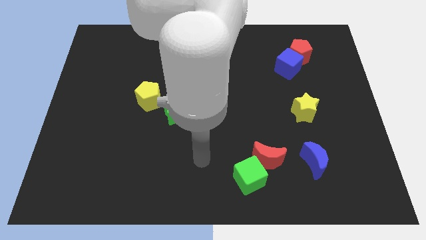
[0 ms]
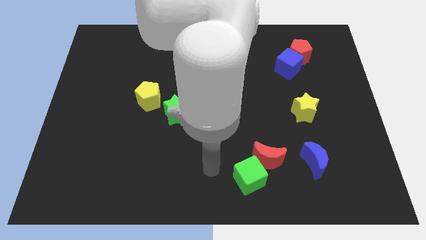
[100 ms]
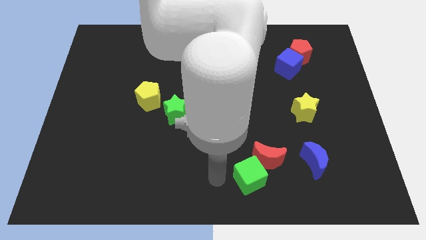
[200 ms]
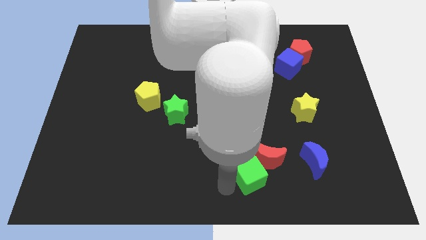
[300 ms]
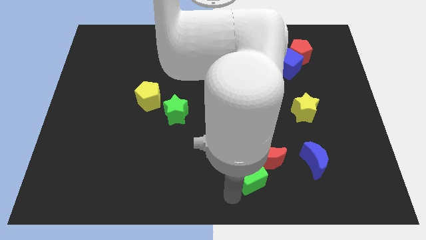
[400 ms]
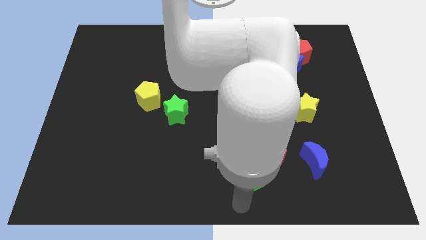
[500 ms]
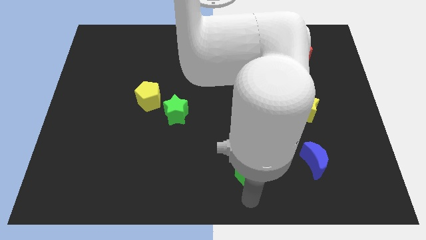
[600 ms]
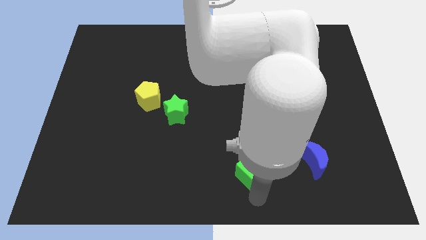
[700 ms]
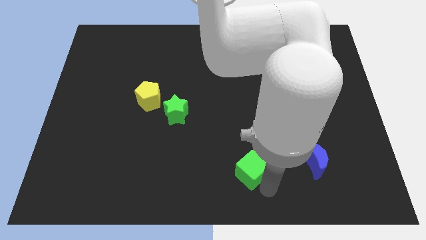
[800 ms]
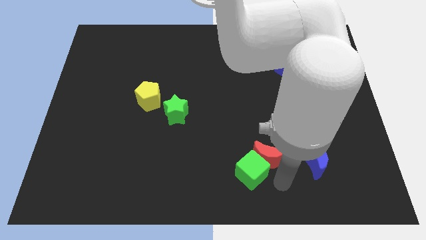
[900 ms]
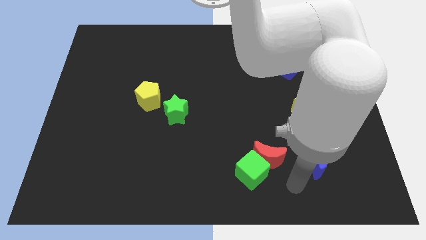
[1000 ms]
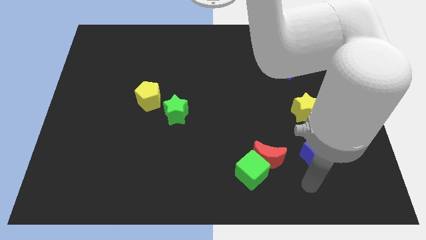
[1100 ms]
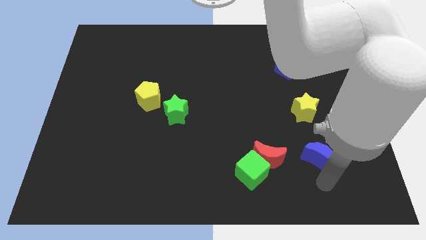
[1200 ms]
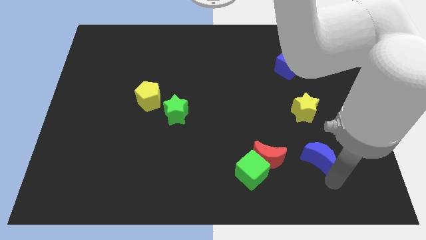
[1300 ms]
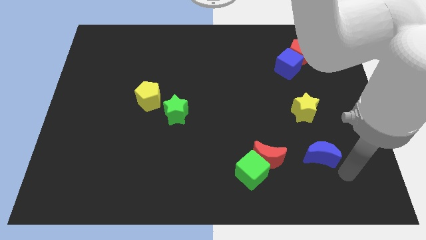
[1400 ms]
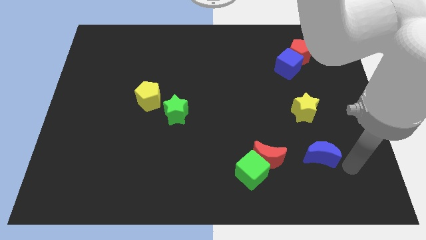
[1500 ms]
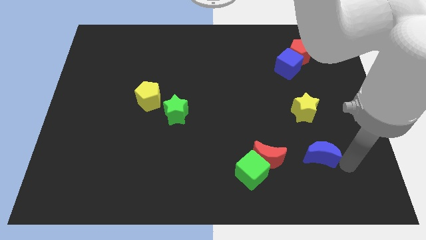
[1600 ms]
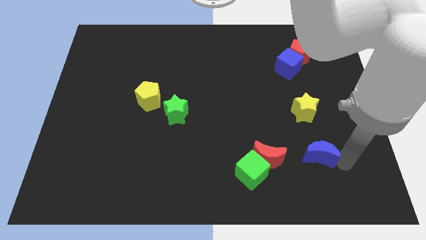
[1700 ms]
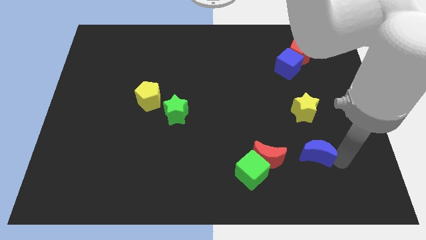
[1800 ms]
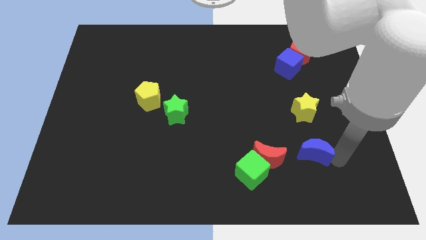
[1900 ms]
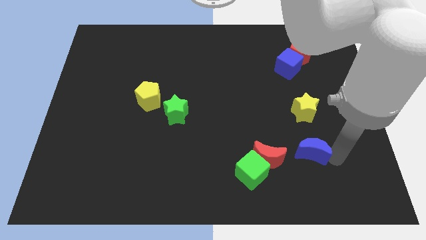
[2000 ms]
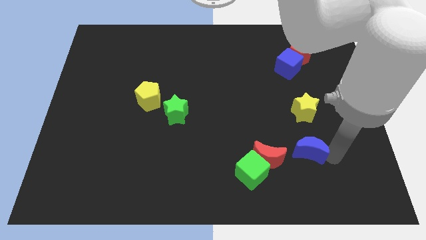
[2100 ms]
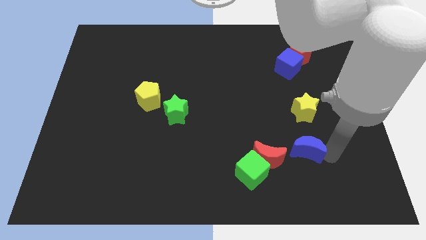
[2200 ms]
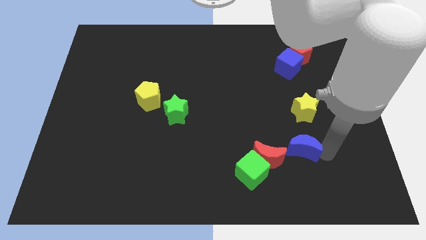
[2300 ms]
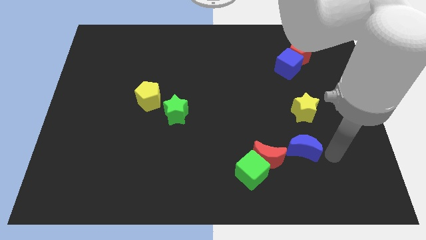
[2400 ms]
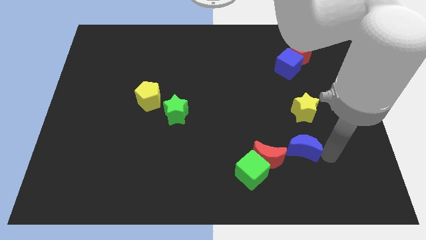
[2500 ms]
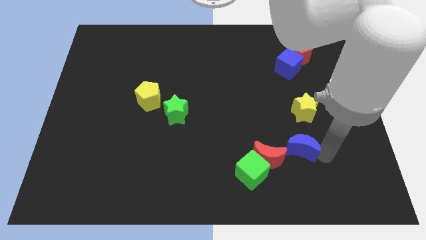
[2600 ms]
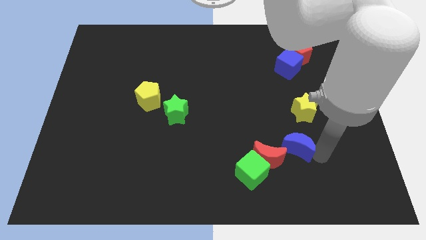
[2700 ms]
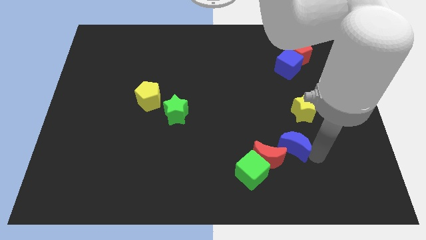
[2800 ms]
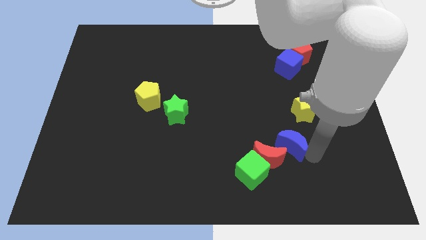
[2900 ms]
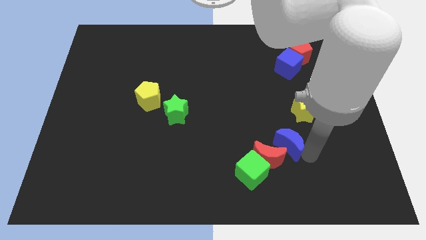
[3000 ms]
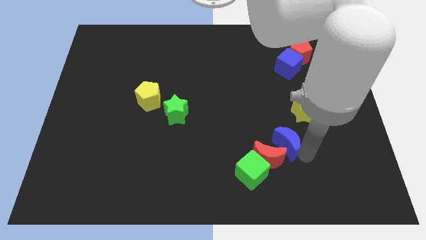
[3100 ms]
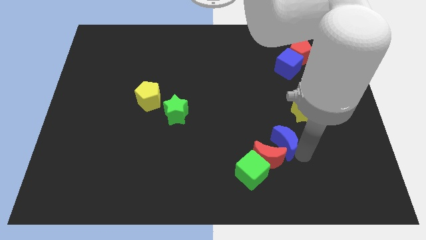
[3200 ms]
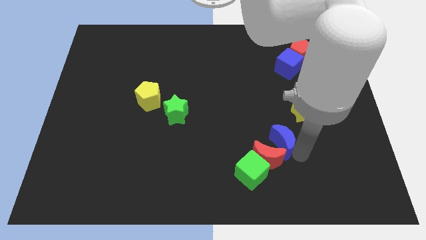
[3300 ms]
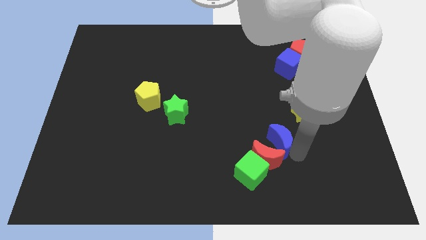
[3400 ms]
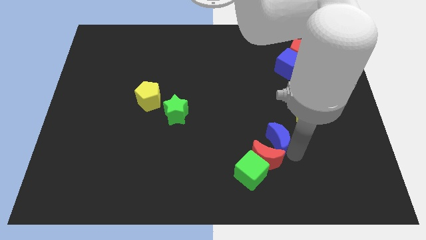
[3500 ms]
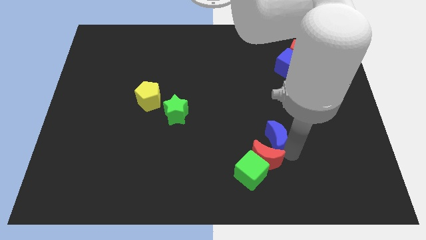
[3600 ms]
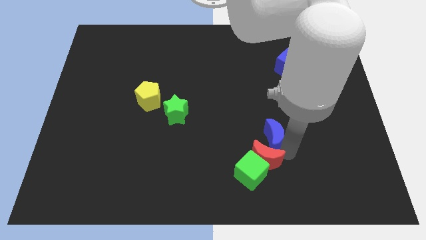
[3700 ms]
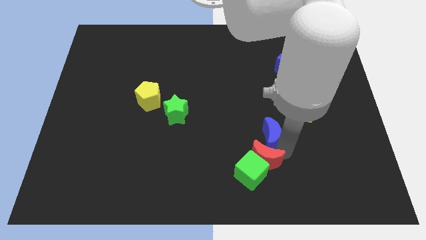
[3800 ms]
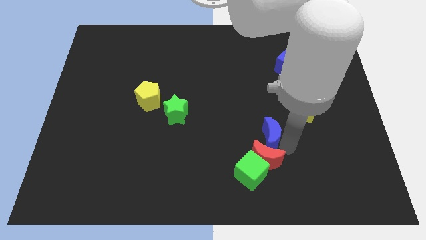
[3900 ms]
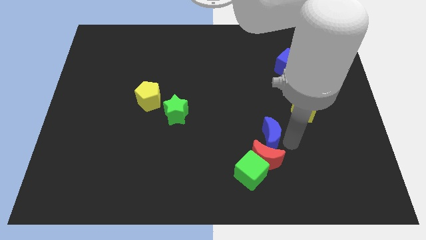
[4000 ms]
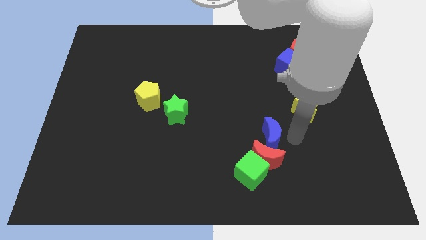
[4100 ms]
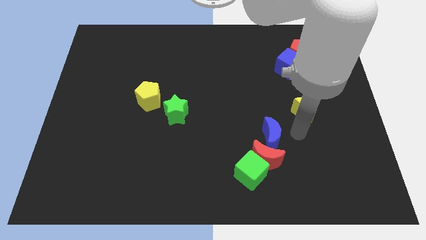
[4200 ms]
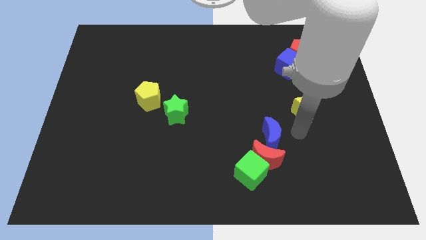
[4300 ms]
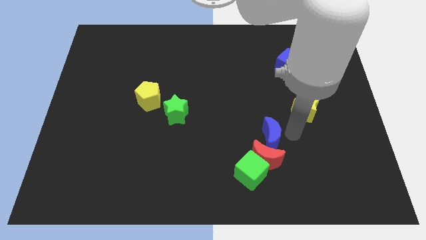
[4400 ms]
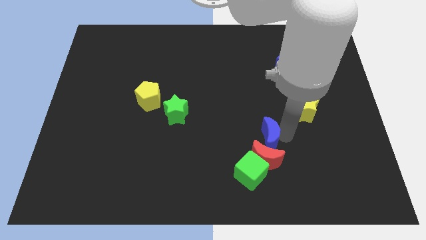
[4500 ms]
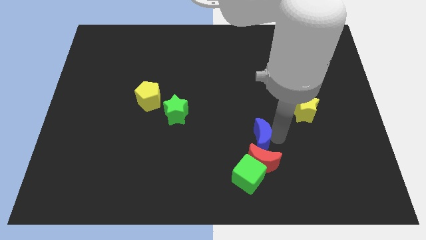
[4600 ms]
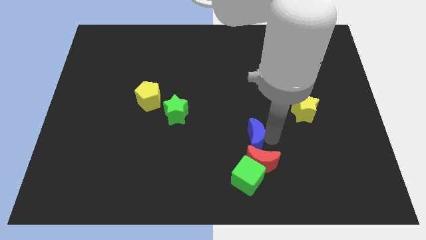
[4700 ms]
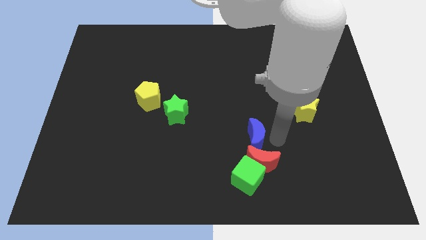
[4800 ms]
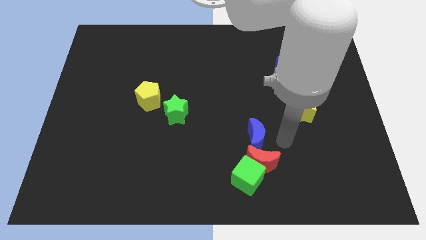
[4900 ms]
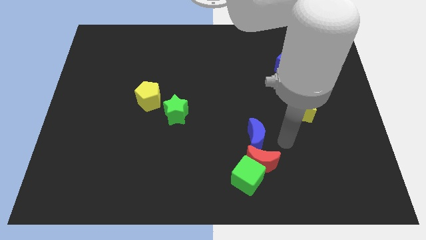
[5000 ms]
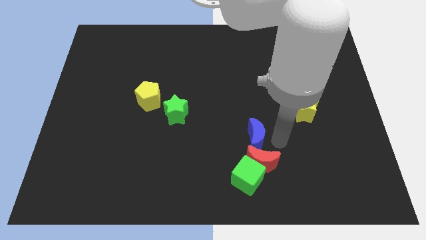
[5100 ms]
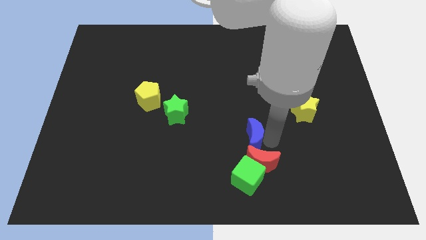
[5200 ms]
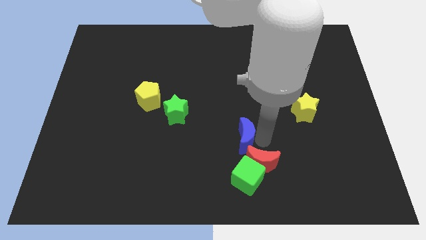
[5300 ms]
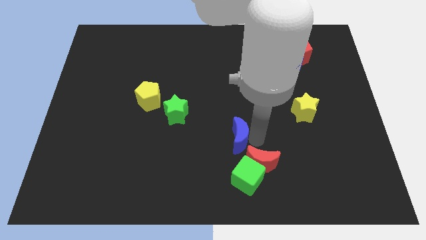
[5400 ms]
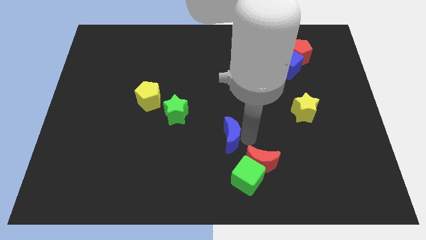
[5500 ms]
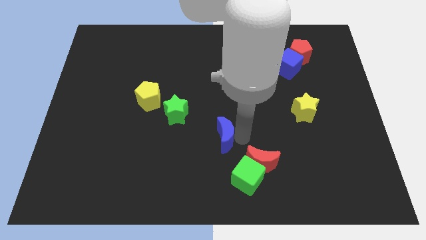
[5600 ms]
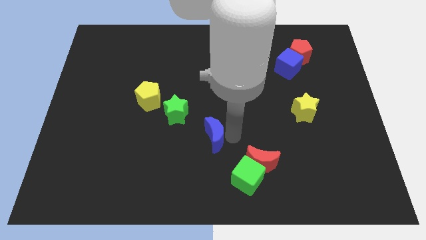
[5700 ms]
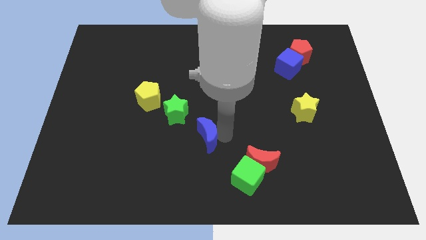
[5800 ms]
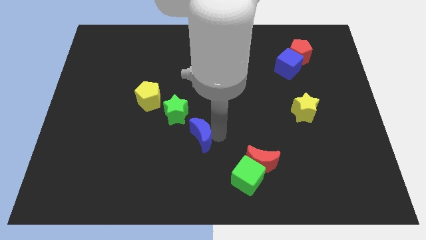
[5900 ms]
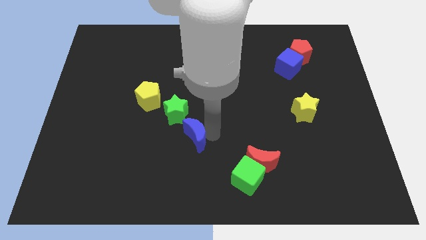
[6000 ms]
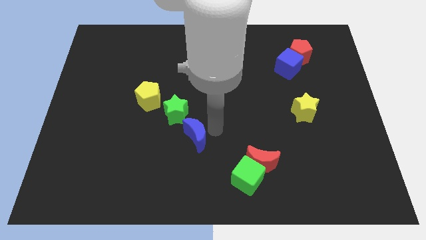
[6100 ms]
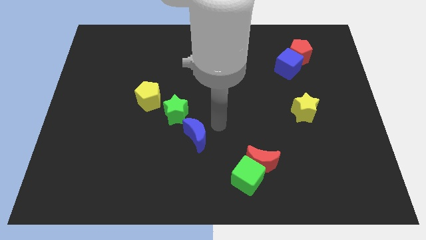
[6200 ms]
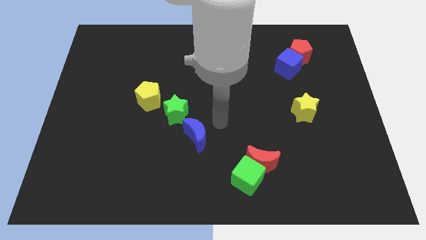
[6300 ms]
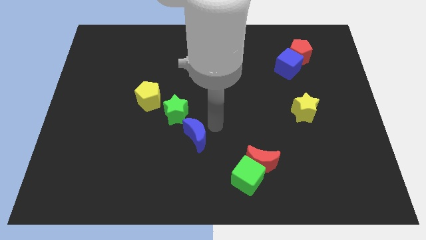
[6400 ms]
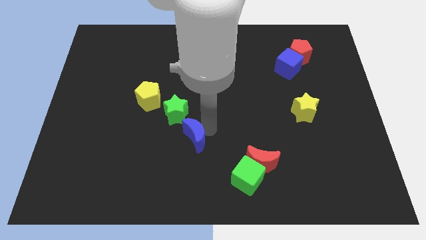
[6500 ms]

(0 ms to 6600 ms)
put the blue moon to the bottom of the green star
